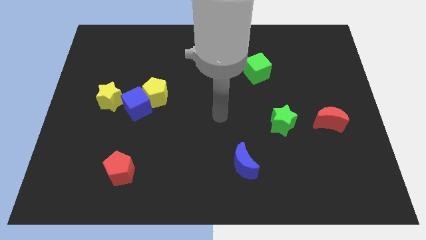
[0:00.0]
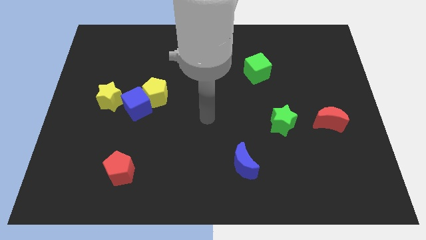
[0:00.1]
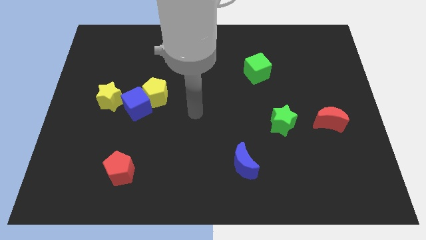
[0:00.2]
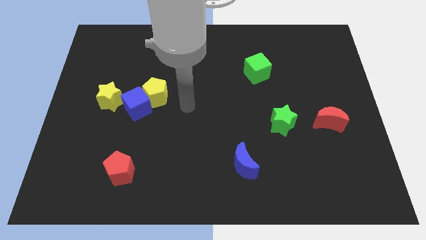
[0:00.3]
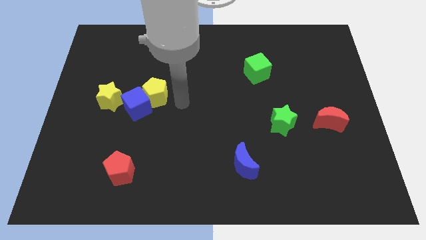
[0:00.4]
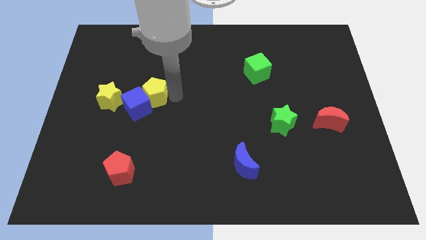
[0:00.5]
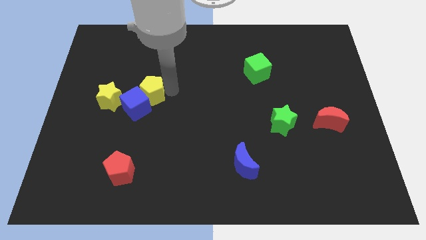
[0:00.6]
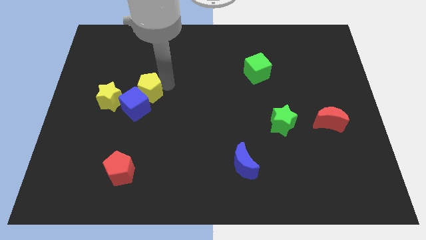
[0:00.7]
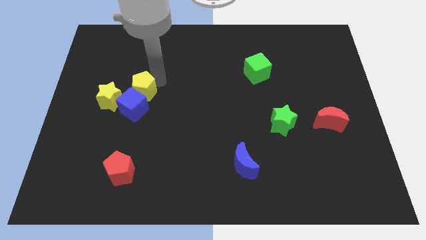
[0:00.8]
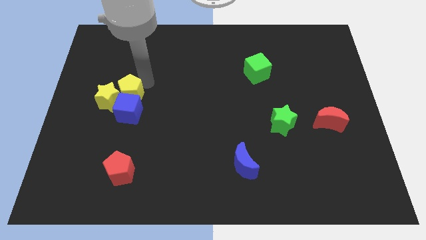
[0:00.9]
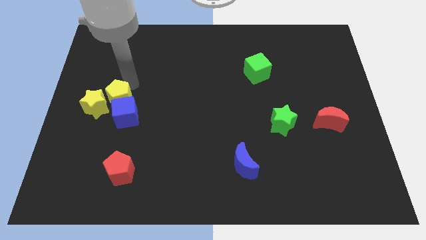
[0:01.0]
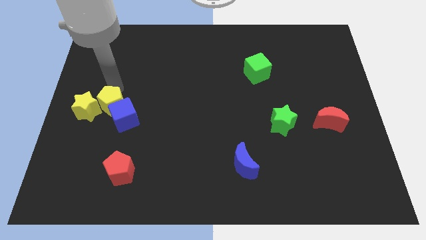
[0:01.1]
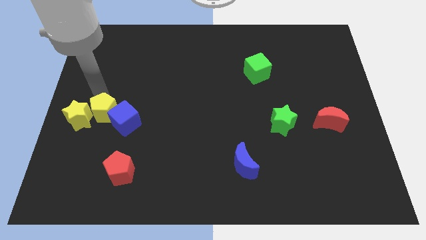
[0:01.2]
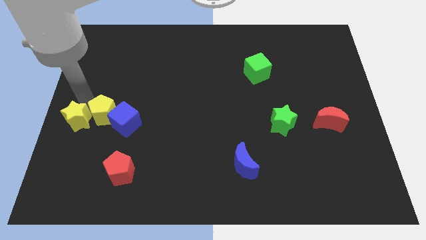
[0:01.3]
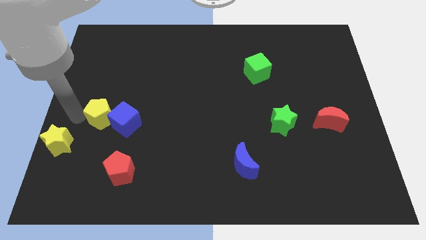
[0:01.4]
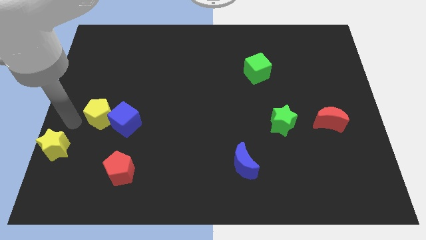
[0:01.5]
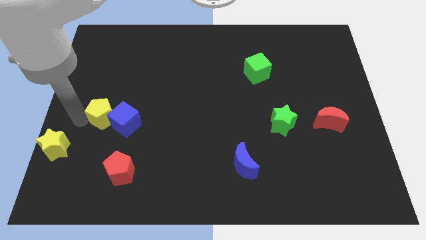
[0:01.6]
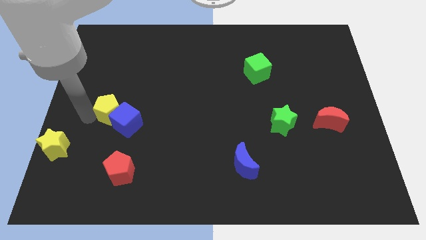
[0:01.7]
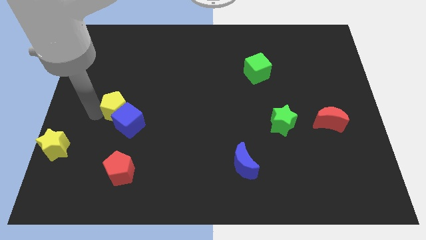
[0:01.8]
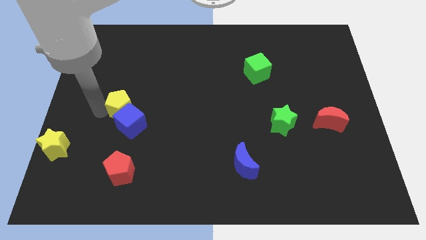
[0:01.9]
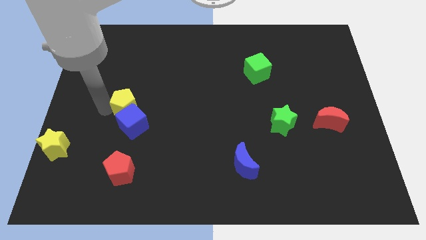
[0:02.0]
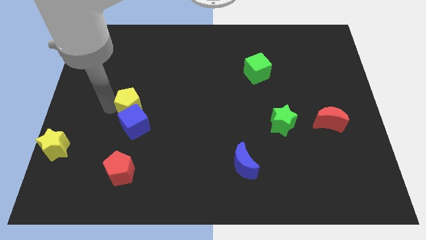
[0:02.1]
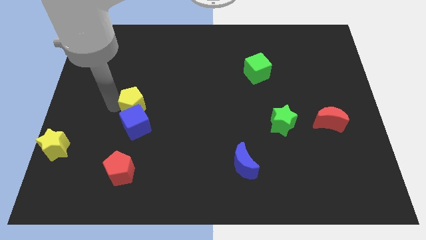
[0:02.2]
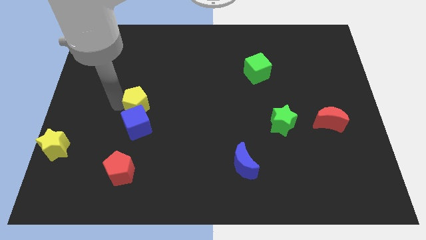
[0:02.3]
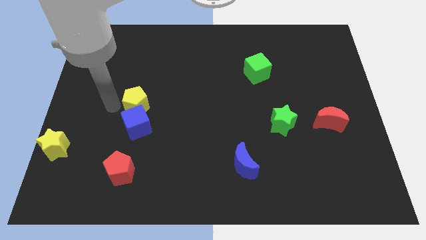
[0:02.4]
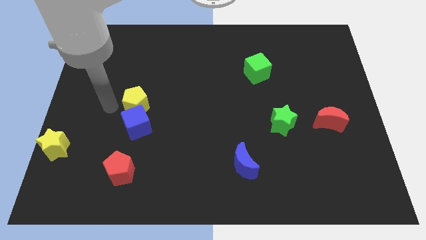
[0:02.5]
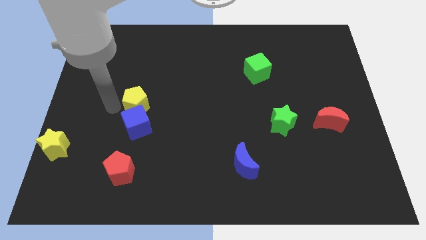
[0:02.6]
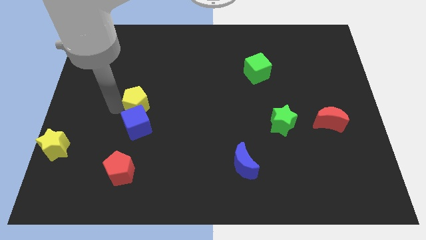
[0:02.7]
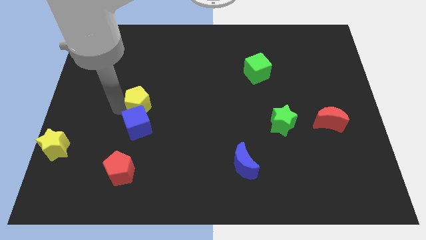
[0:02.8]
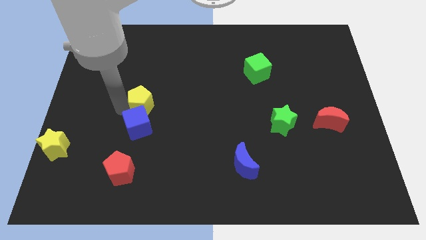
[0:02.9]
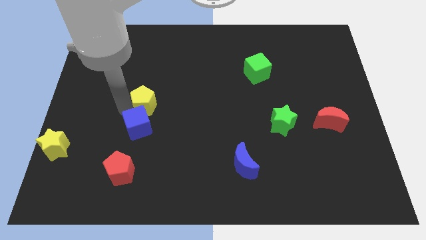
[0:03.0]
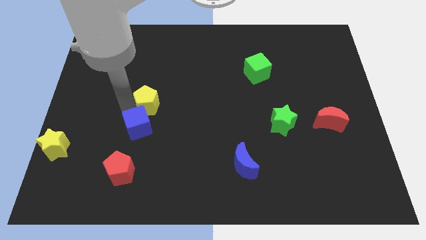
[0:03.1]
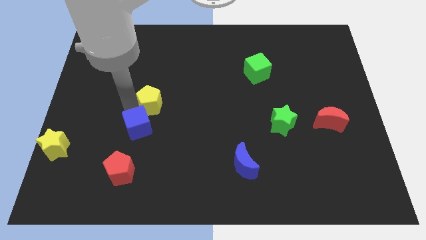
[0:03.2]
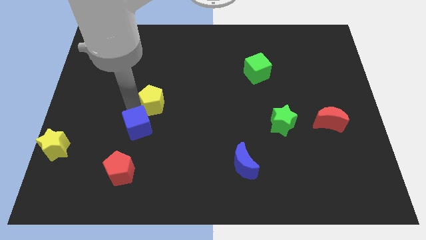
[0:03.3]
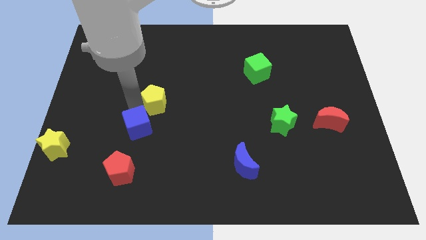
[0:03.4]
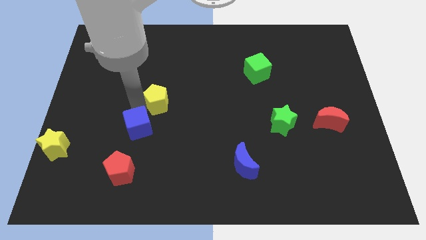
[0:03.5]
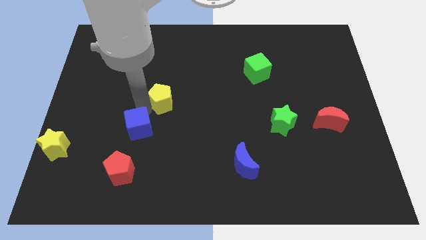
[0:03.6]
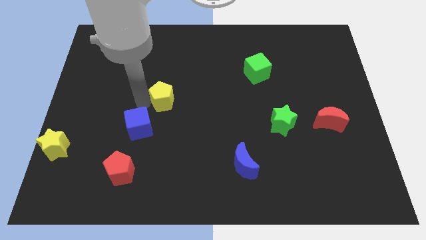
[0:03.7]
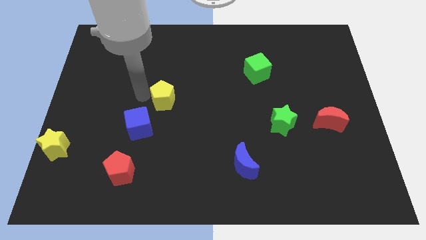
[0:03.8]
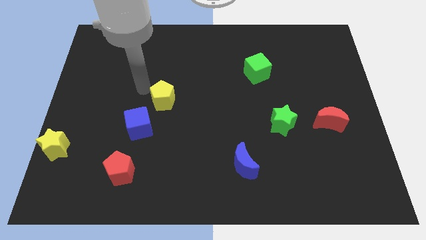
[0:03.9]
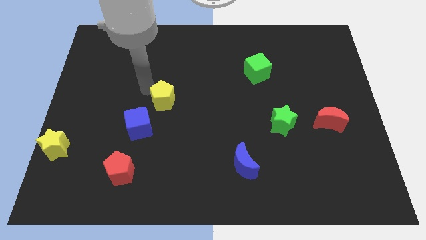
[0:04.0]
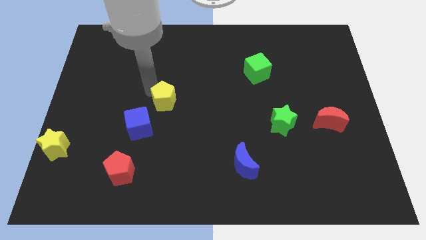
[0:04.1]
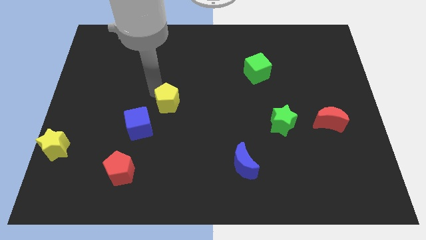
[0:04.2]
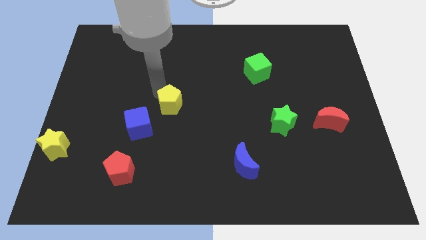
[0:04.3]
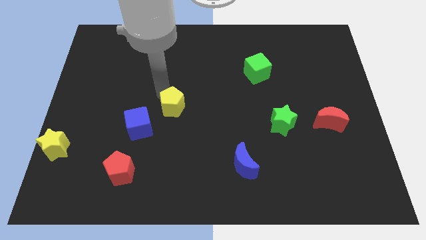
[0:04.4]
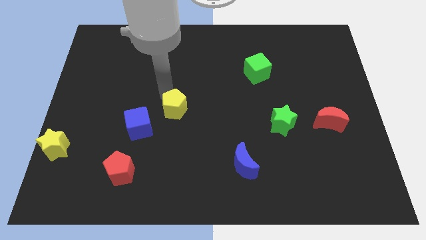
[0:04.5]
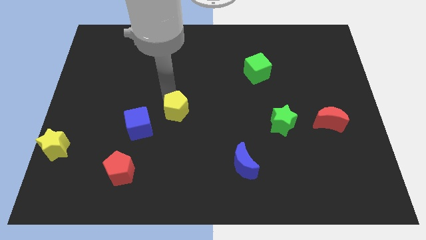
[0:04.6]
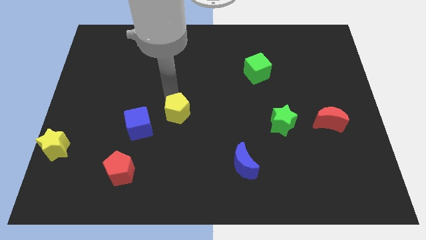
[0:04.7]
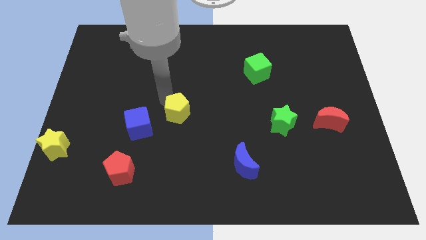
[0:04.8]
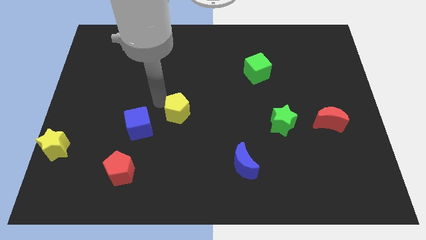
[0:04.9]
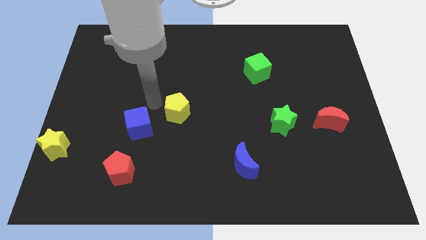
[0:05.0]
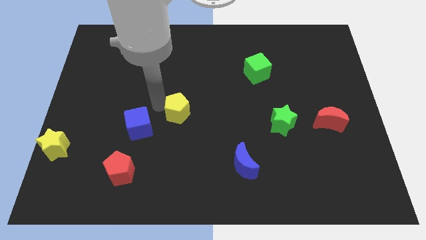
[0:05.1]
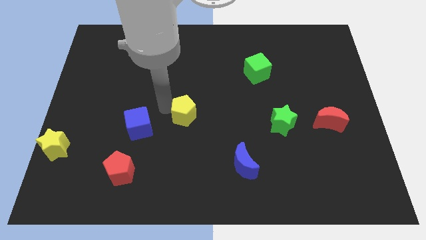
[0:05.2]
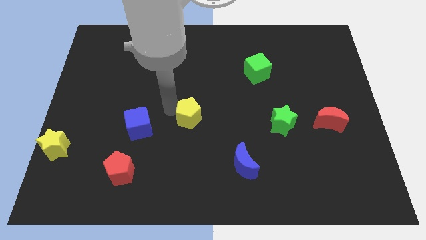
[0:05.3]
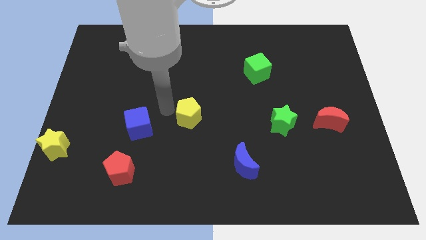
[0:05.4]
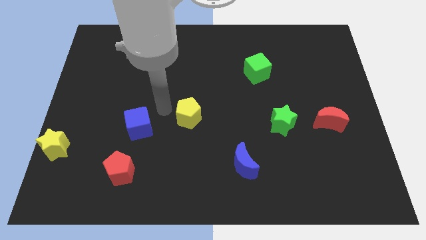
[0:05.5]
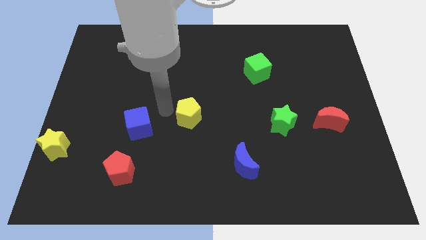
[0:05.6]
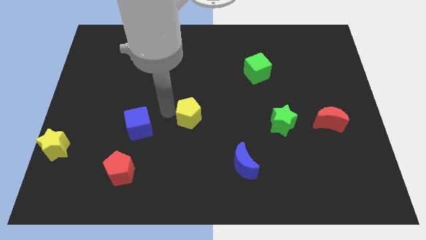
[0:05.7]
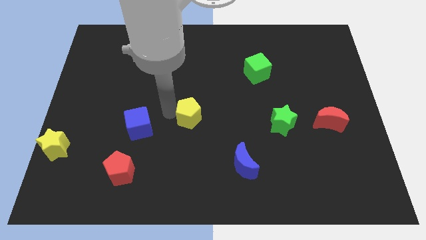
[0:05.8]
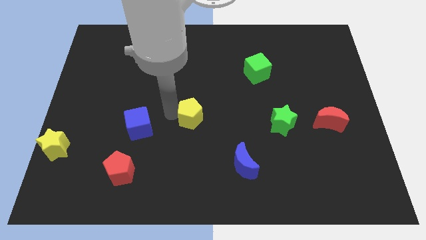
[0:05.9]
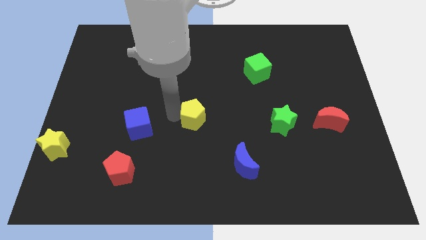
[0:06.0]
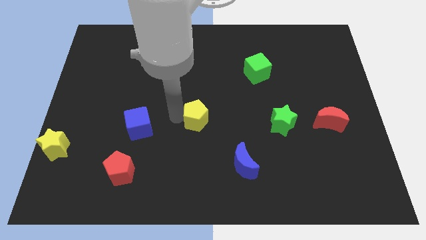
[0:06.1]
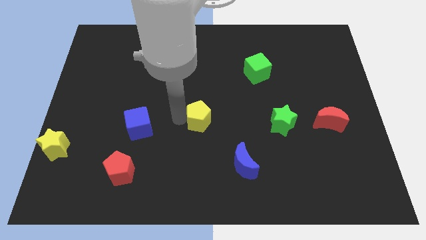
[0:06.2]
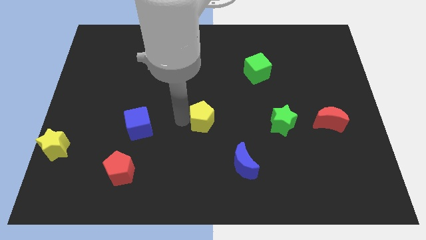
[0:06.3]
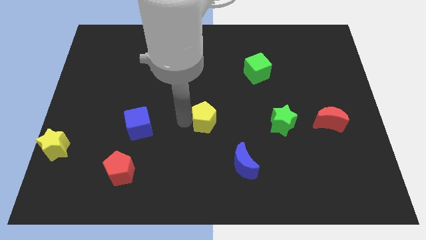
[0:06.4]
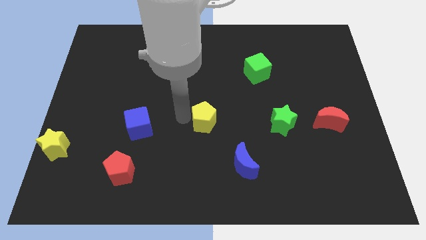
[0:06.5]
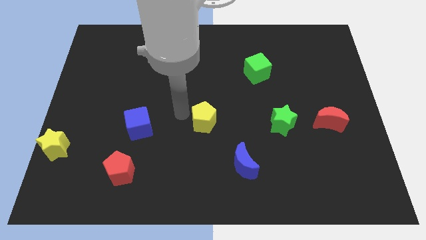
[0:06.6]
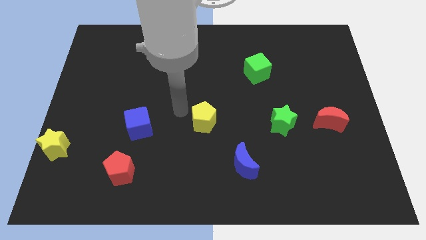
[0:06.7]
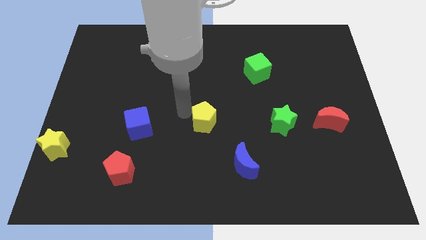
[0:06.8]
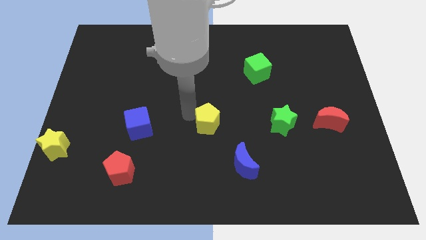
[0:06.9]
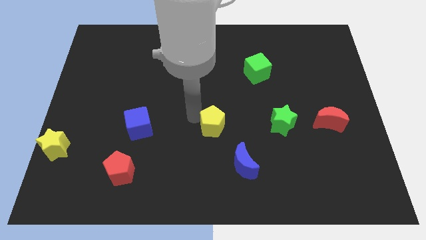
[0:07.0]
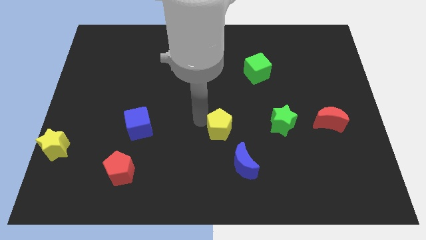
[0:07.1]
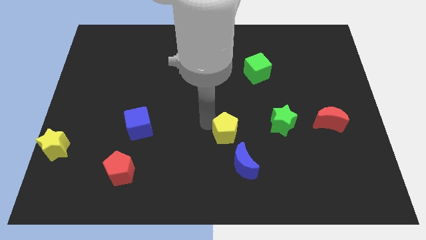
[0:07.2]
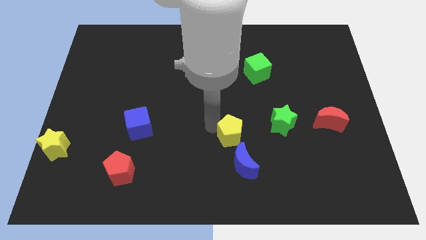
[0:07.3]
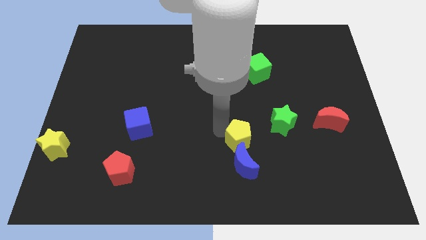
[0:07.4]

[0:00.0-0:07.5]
push the yellow pentagon diagonally up and to the right of the blue moon
